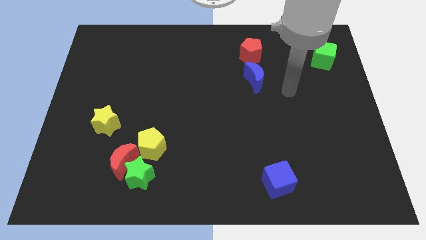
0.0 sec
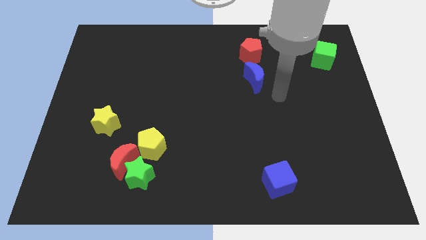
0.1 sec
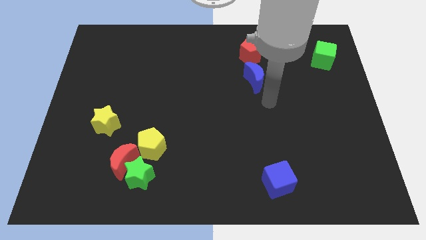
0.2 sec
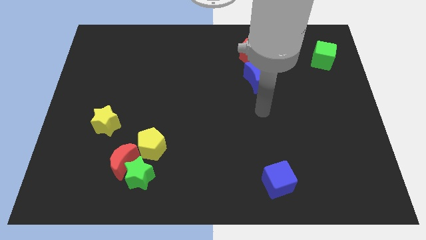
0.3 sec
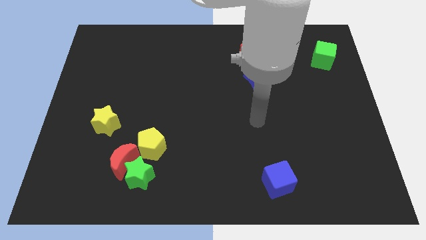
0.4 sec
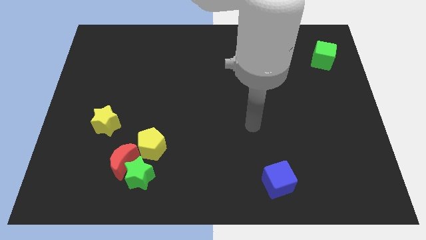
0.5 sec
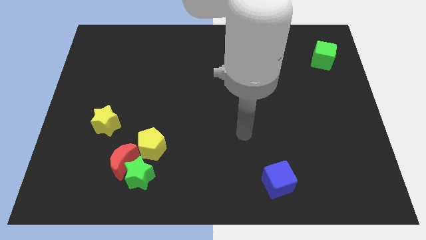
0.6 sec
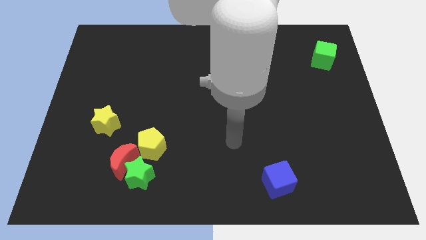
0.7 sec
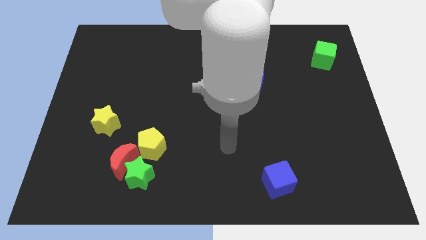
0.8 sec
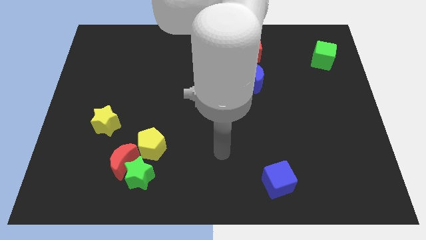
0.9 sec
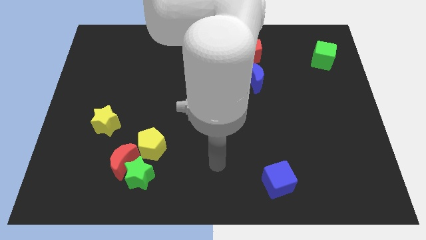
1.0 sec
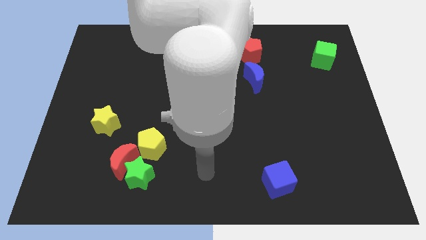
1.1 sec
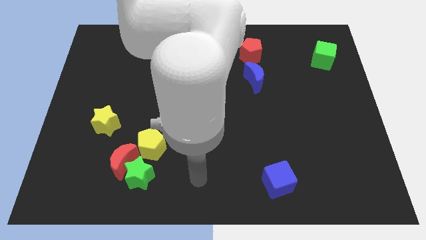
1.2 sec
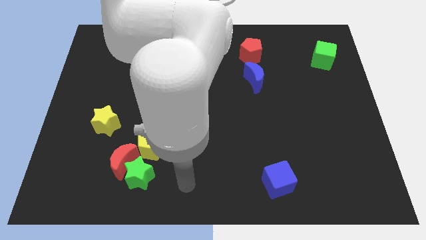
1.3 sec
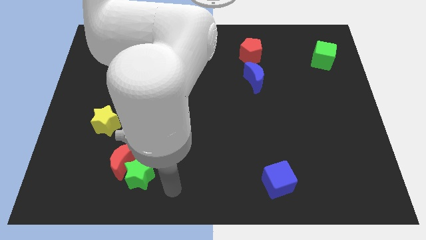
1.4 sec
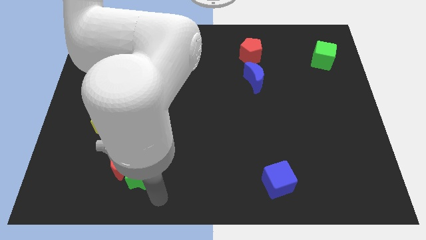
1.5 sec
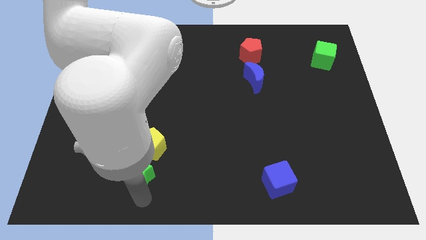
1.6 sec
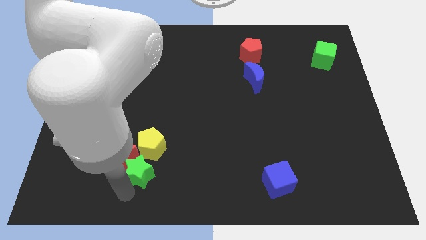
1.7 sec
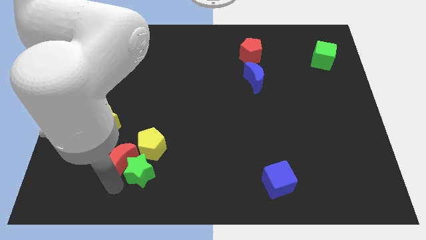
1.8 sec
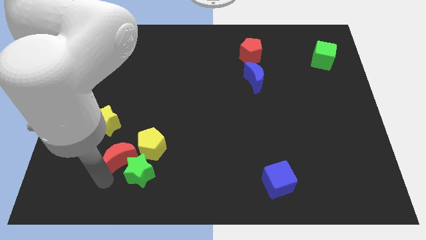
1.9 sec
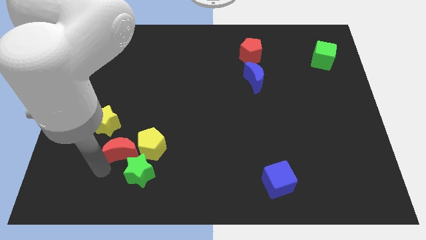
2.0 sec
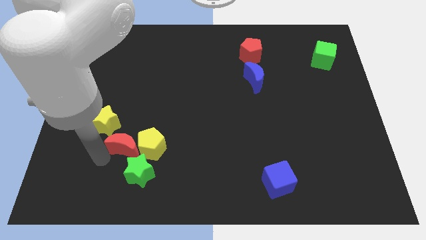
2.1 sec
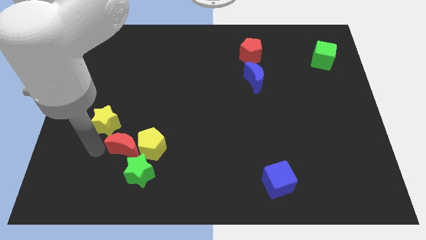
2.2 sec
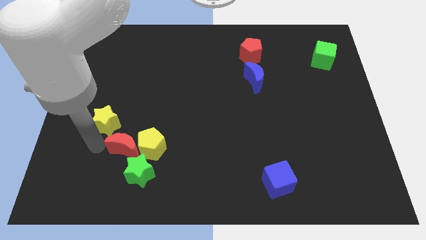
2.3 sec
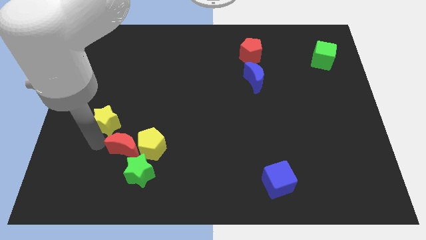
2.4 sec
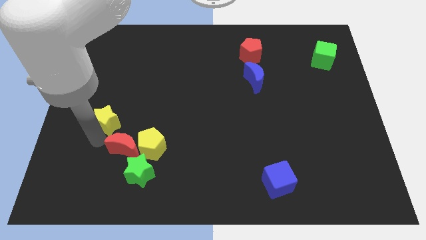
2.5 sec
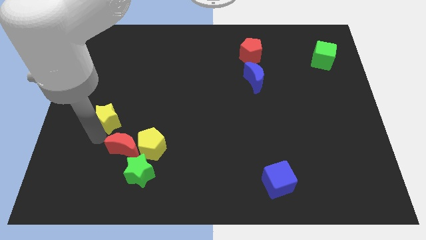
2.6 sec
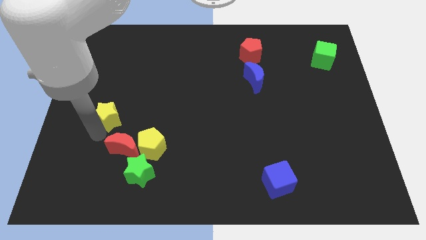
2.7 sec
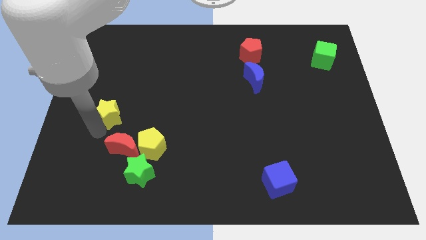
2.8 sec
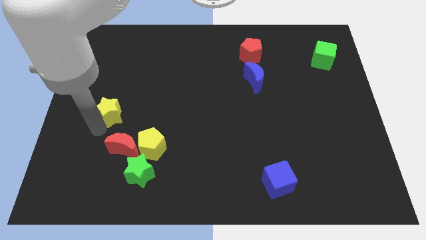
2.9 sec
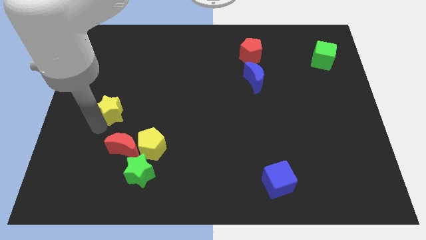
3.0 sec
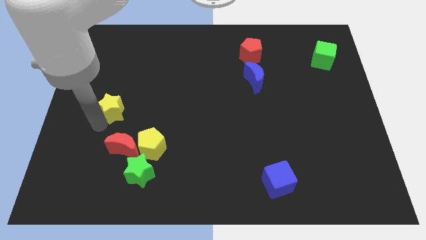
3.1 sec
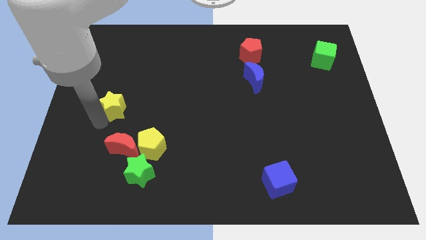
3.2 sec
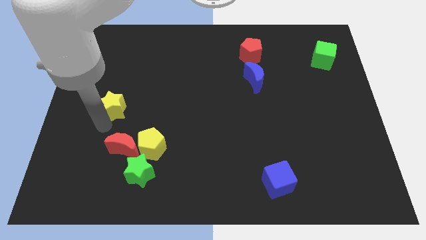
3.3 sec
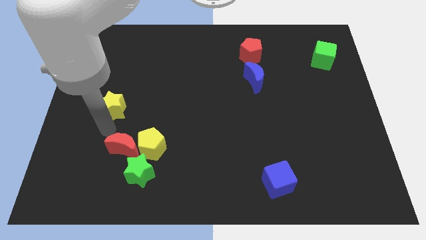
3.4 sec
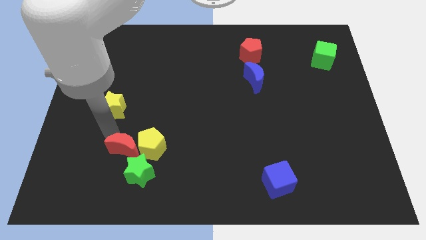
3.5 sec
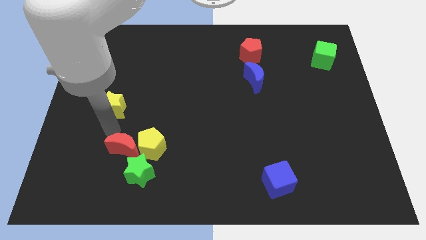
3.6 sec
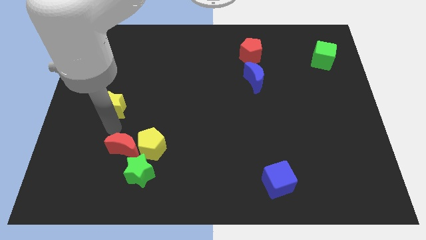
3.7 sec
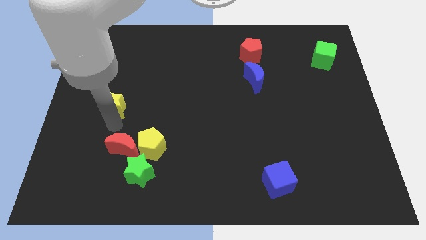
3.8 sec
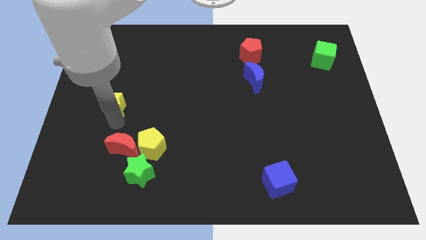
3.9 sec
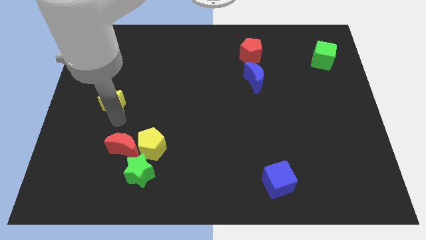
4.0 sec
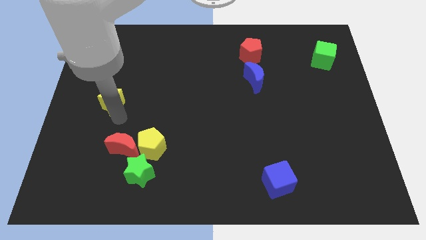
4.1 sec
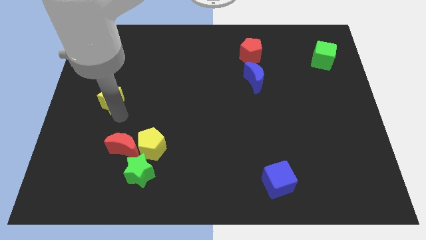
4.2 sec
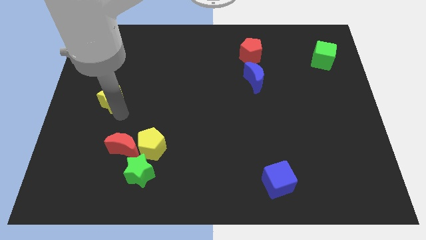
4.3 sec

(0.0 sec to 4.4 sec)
slightly slide the yellow star up

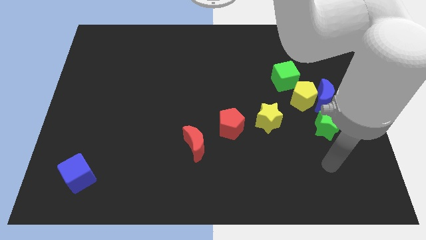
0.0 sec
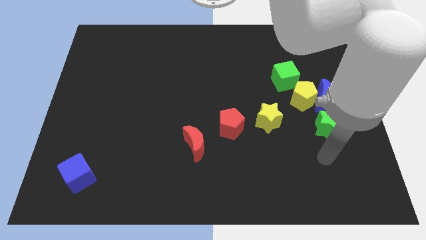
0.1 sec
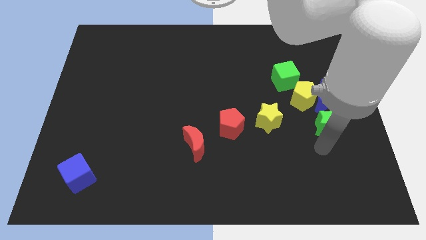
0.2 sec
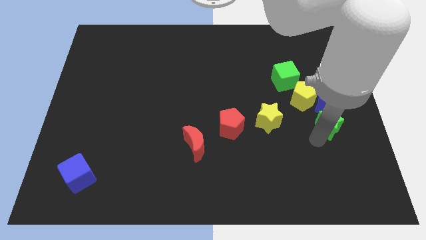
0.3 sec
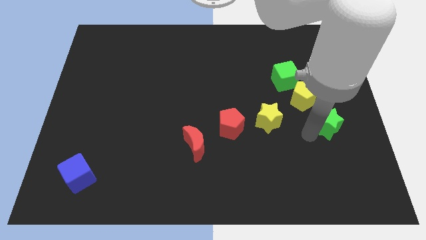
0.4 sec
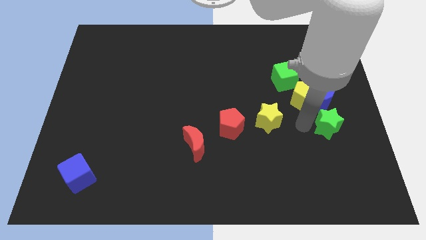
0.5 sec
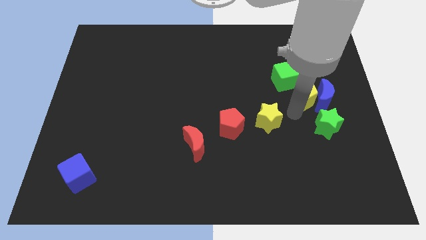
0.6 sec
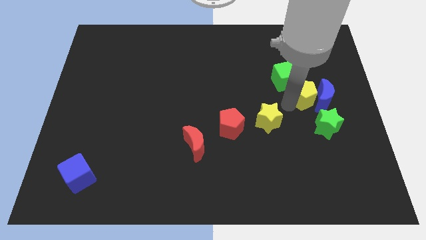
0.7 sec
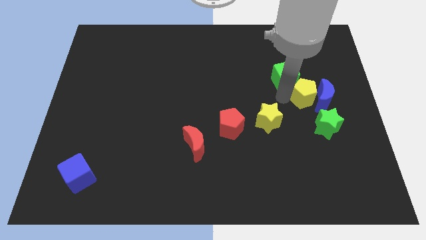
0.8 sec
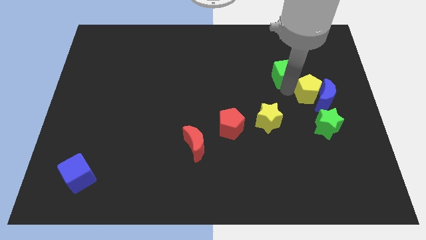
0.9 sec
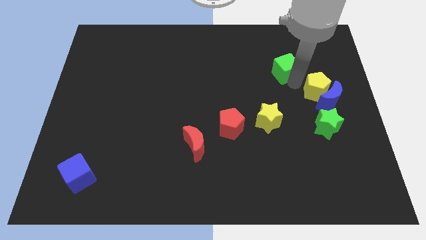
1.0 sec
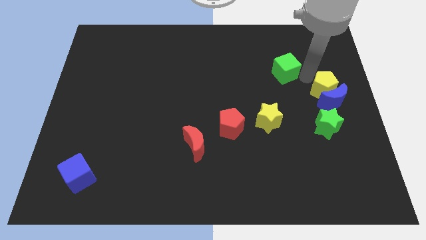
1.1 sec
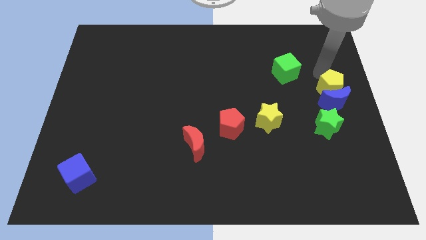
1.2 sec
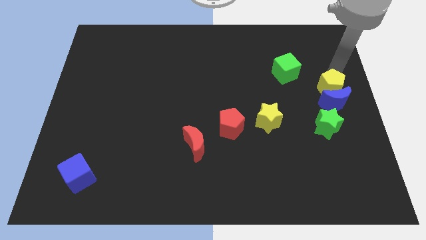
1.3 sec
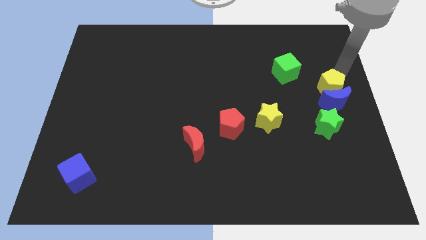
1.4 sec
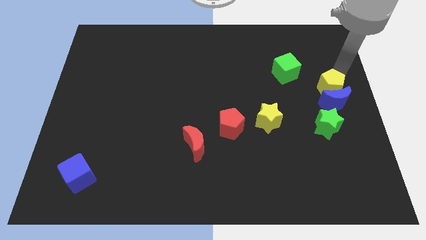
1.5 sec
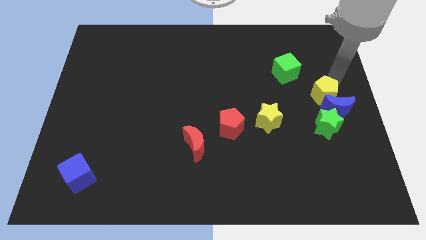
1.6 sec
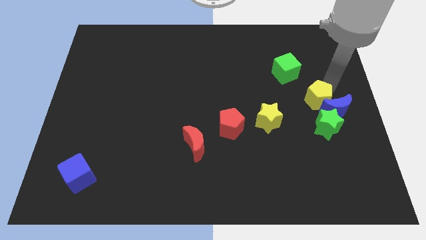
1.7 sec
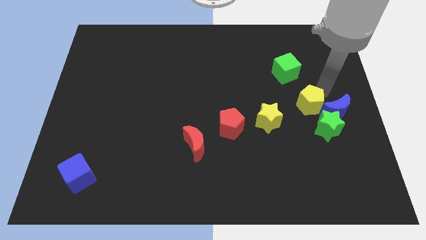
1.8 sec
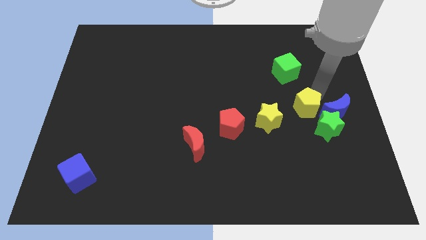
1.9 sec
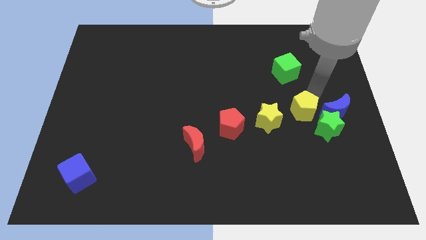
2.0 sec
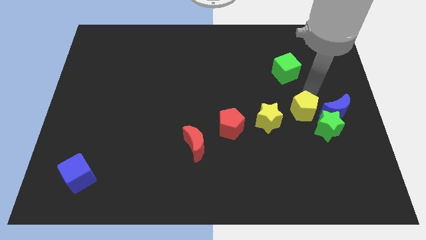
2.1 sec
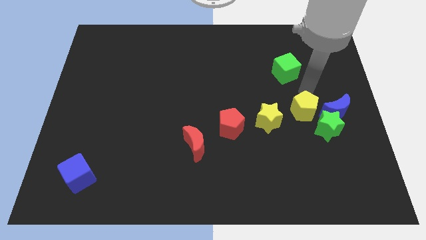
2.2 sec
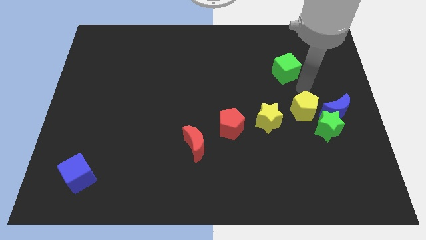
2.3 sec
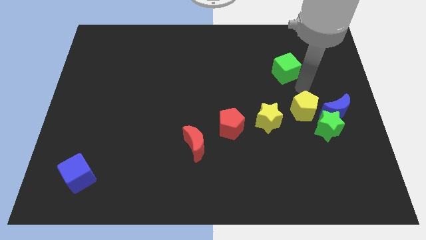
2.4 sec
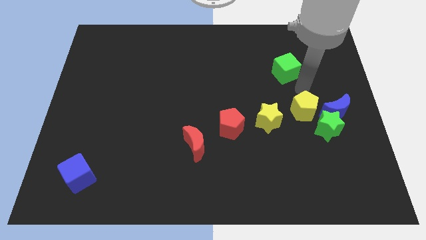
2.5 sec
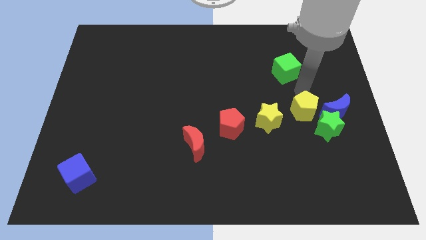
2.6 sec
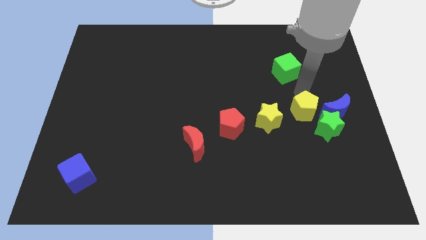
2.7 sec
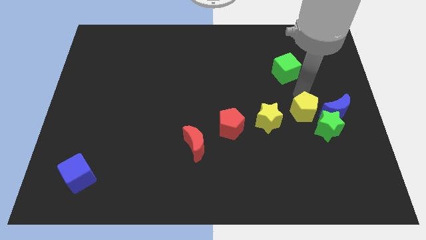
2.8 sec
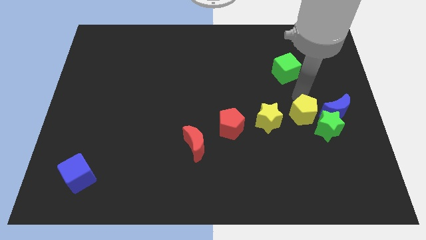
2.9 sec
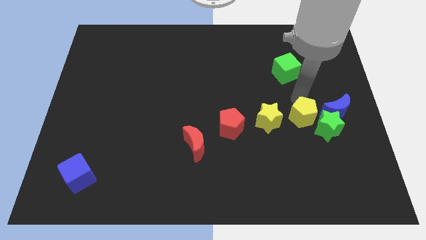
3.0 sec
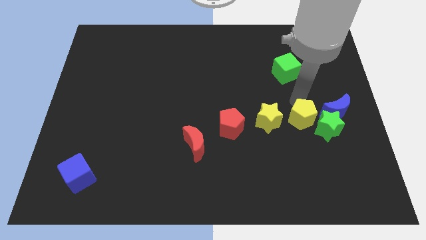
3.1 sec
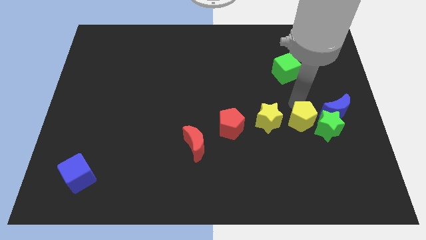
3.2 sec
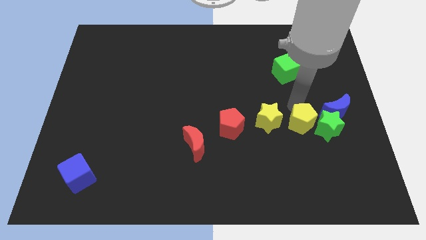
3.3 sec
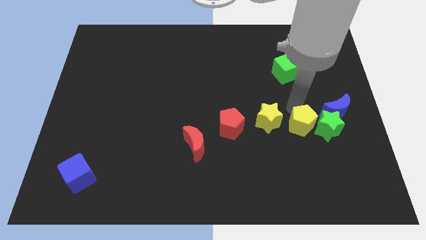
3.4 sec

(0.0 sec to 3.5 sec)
slightly slide the yellow pentagon downwards

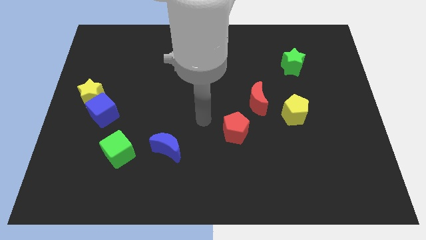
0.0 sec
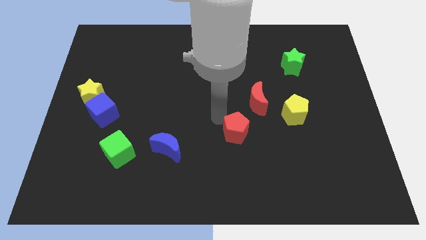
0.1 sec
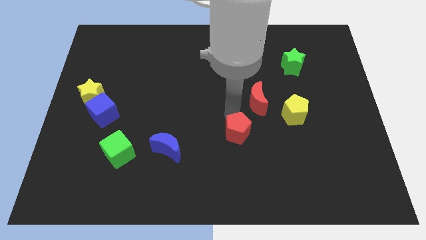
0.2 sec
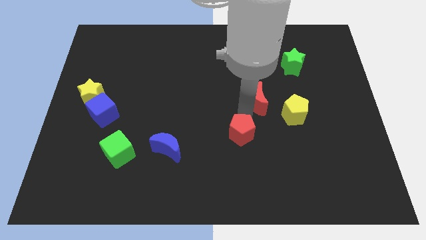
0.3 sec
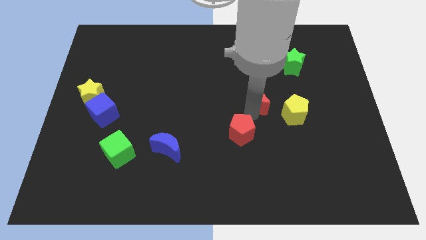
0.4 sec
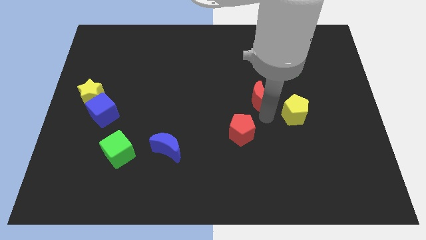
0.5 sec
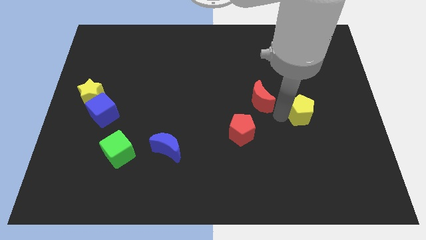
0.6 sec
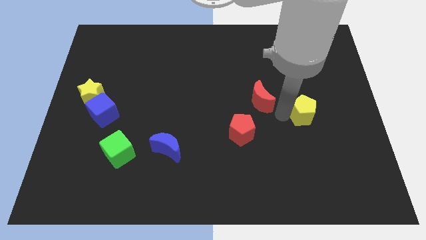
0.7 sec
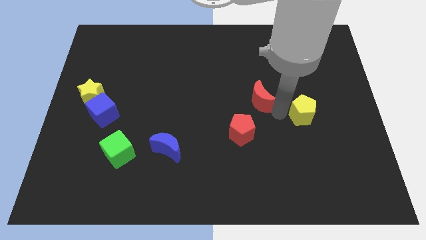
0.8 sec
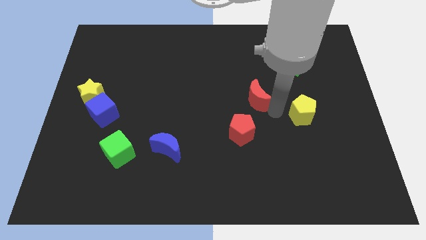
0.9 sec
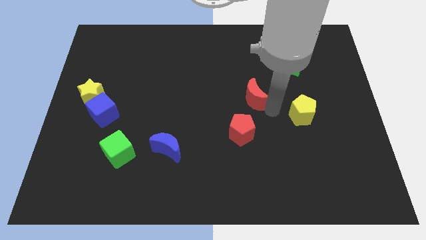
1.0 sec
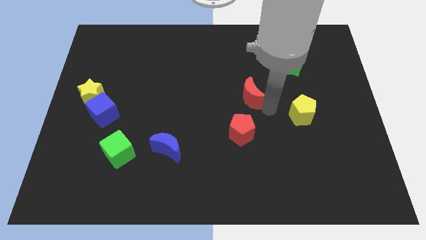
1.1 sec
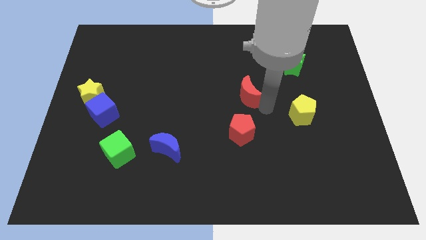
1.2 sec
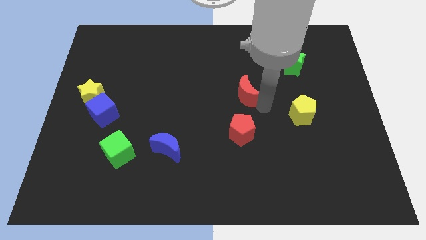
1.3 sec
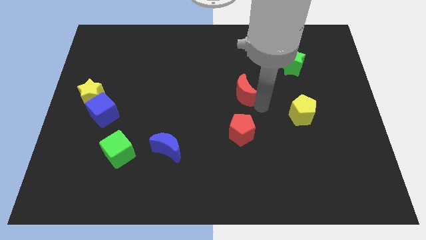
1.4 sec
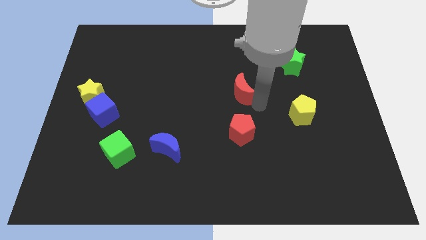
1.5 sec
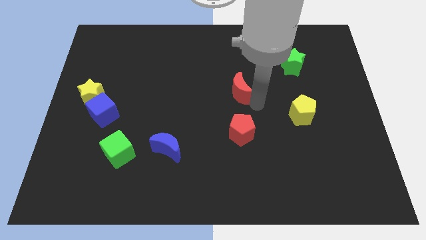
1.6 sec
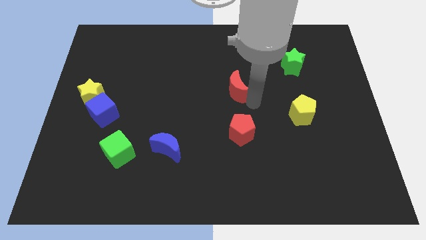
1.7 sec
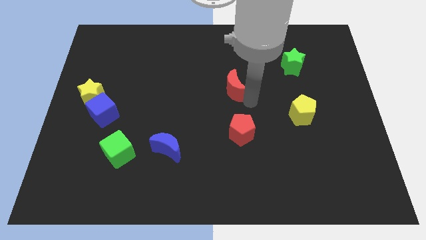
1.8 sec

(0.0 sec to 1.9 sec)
slide the red moon a little up and left
